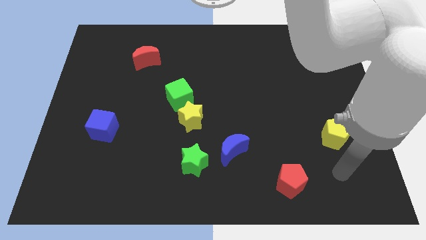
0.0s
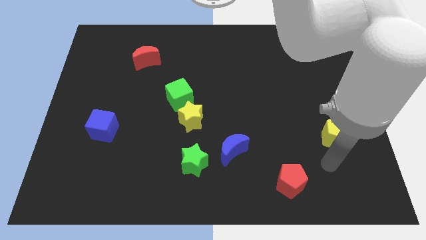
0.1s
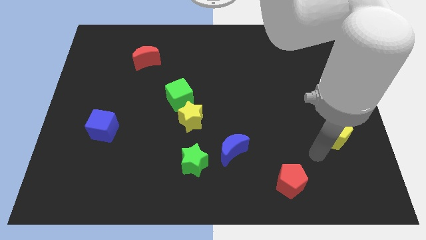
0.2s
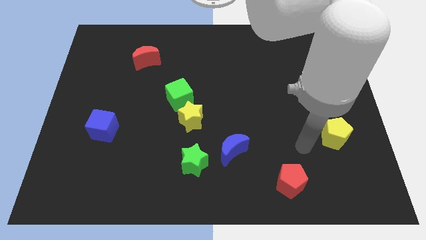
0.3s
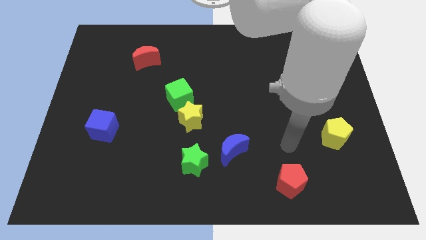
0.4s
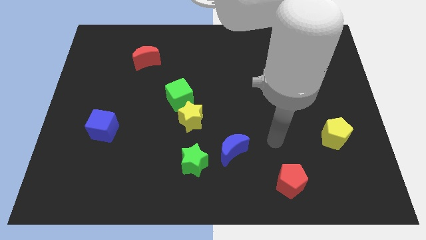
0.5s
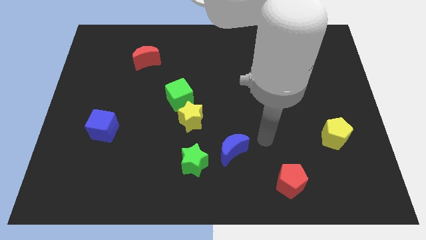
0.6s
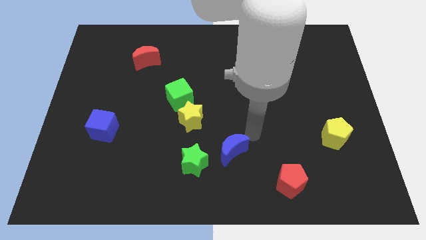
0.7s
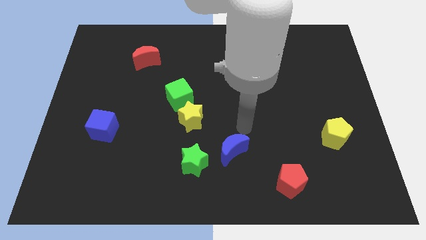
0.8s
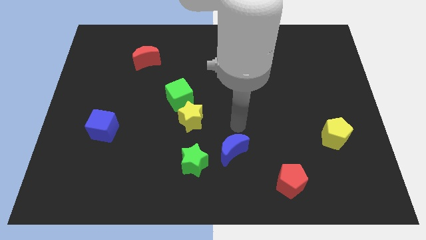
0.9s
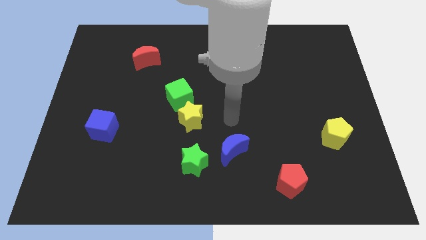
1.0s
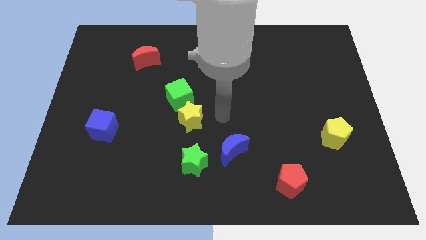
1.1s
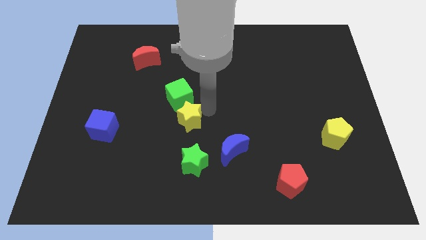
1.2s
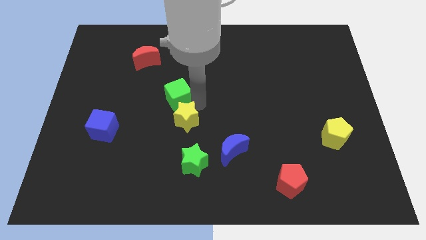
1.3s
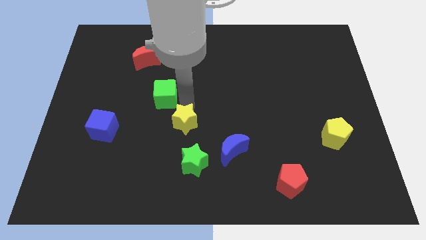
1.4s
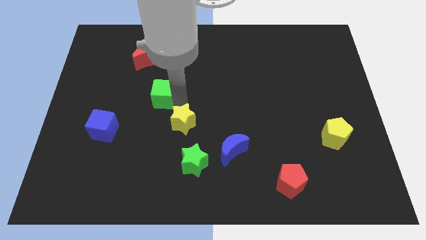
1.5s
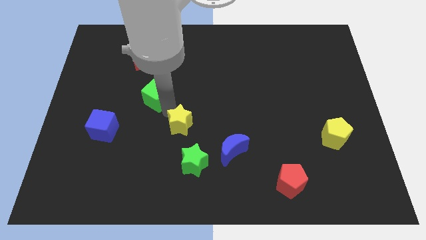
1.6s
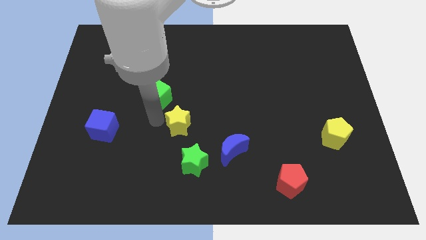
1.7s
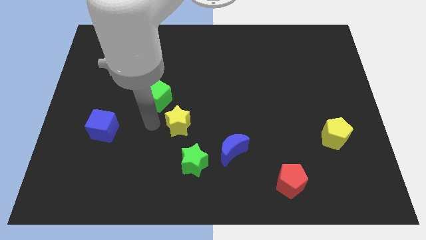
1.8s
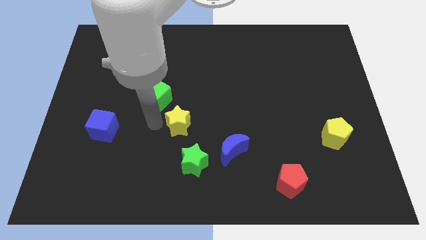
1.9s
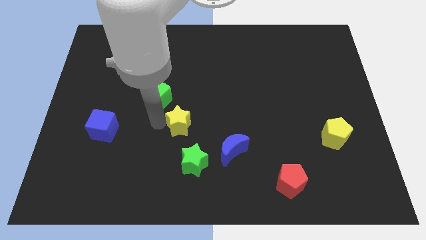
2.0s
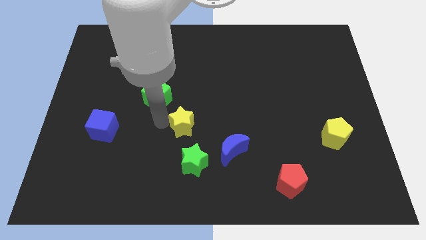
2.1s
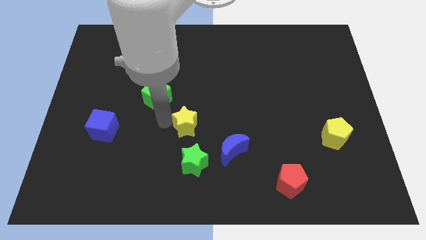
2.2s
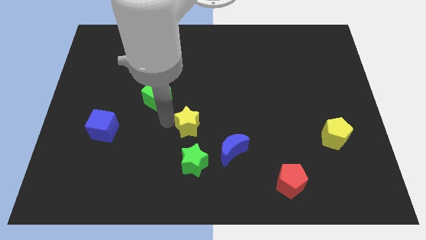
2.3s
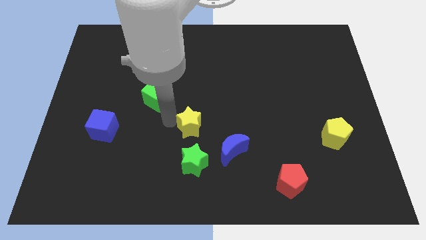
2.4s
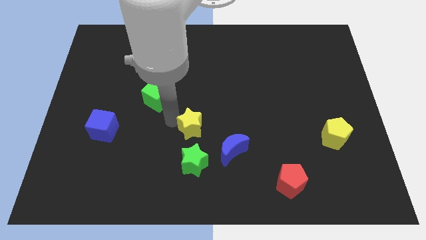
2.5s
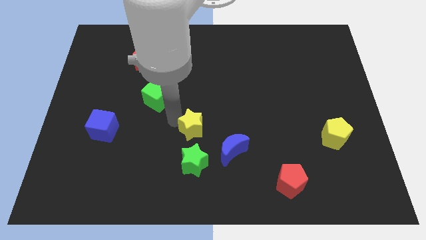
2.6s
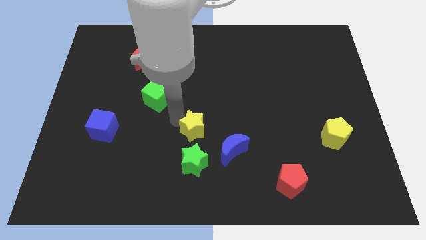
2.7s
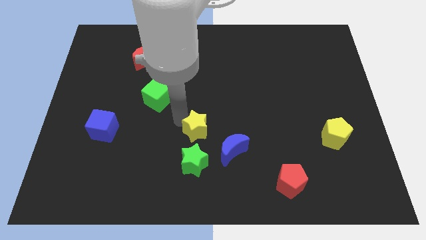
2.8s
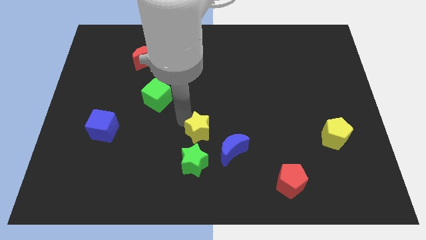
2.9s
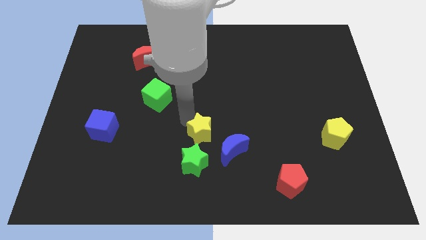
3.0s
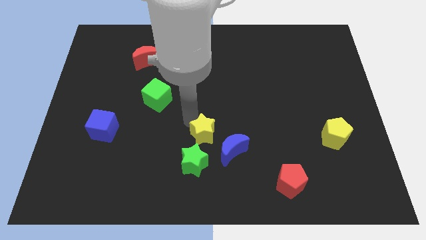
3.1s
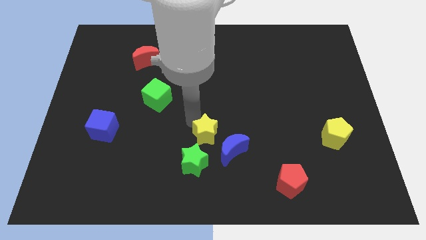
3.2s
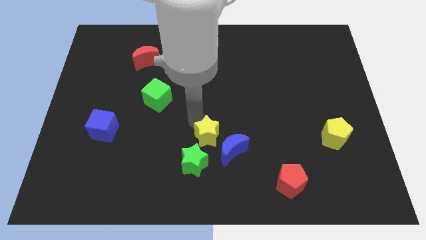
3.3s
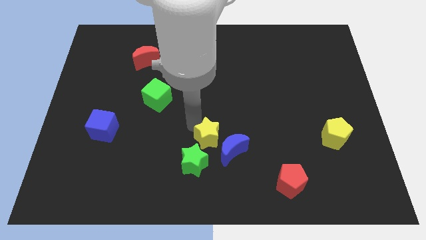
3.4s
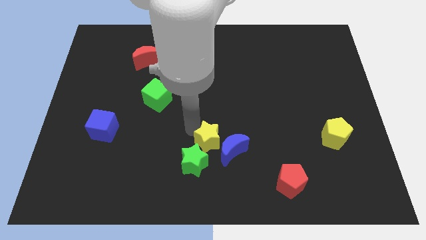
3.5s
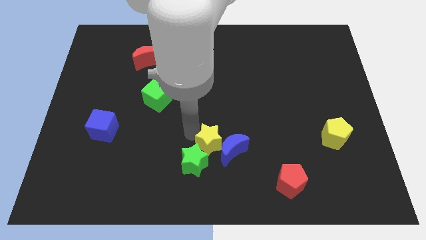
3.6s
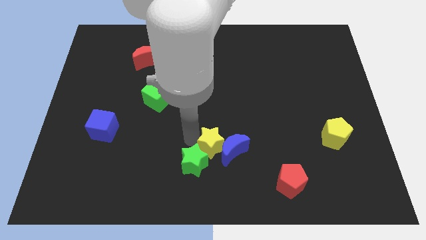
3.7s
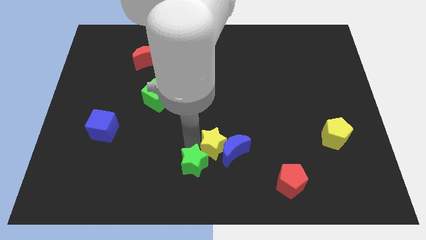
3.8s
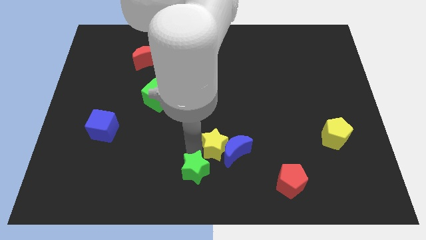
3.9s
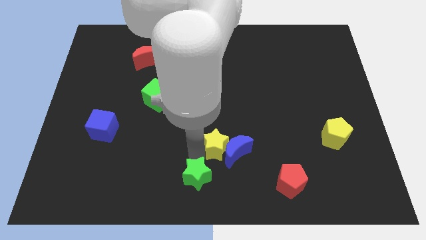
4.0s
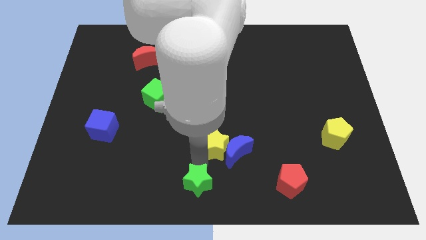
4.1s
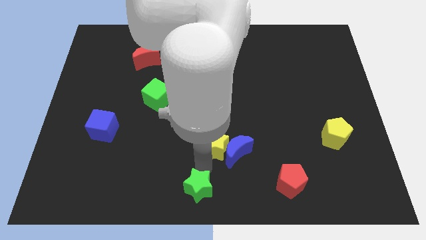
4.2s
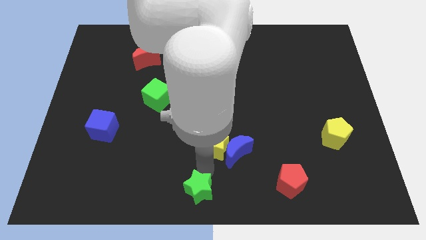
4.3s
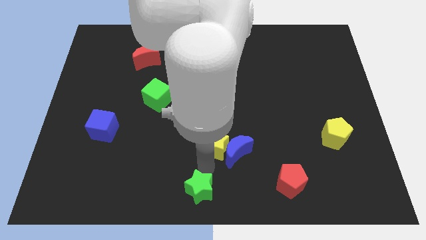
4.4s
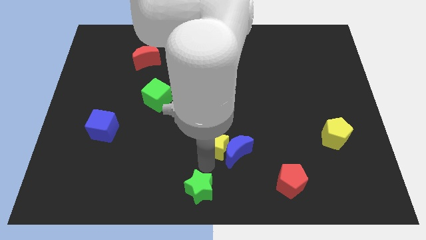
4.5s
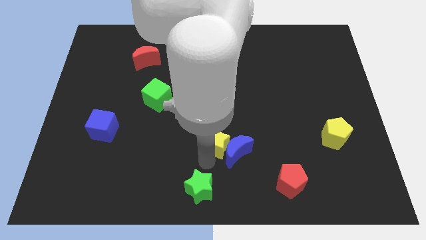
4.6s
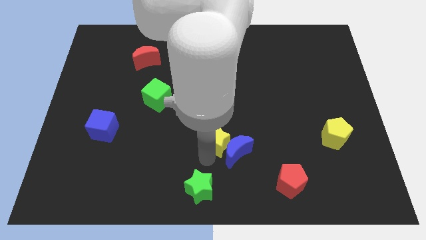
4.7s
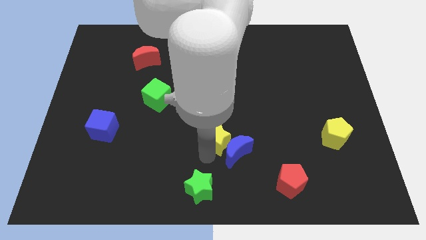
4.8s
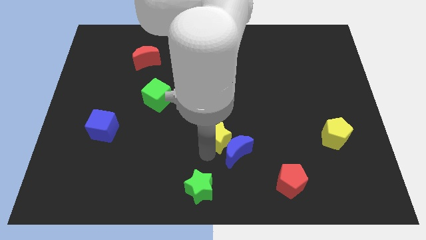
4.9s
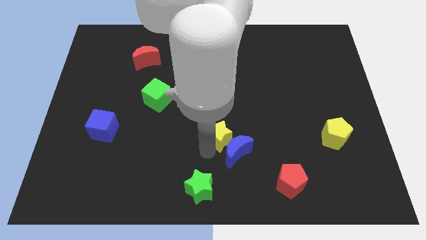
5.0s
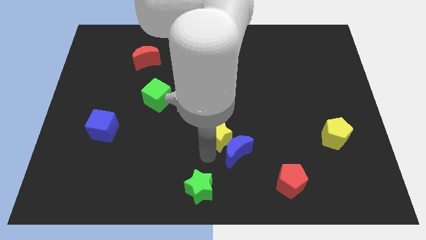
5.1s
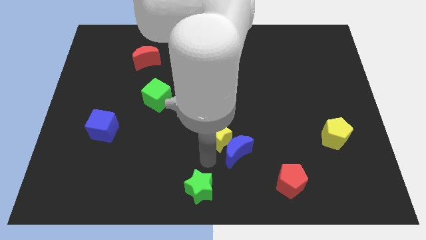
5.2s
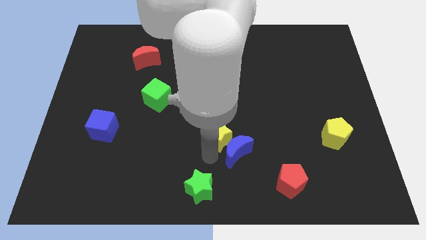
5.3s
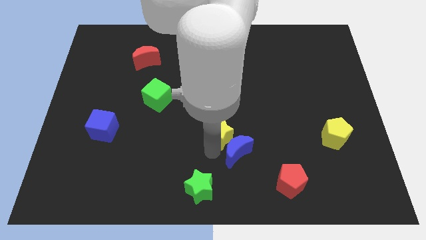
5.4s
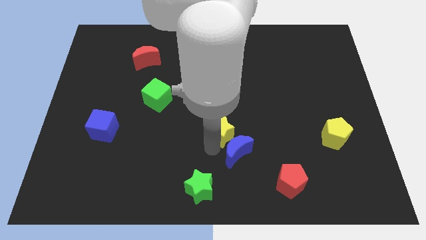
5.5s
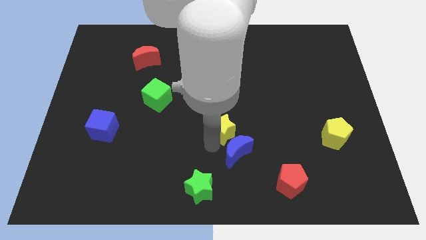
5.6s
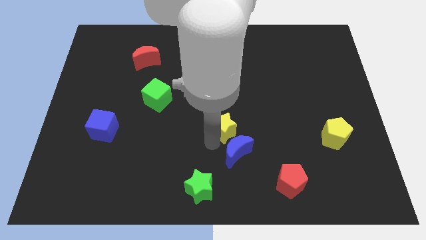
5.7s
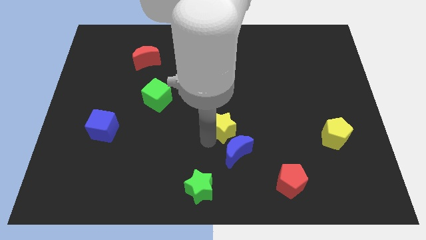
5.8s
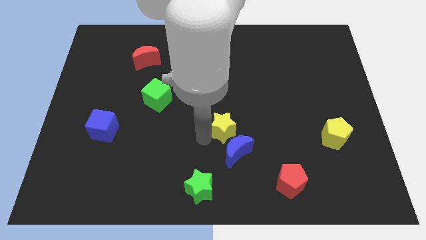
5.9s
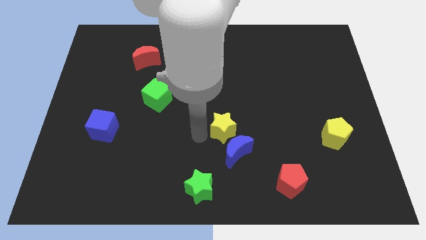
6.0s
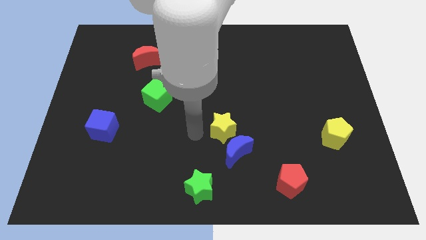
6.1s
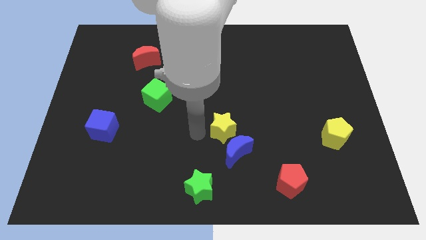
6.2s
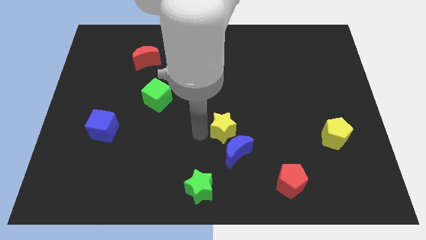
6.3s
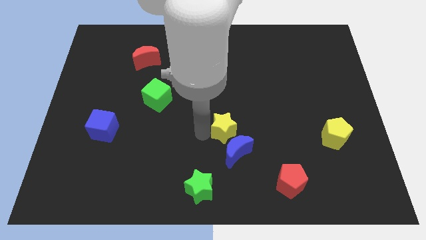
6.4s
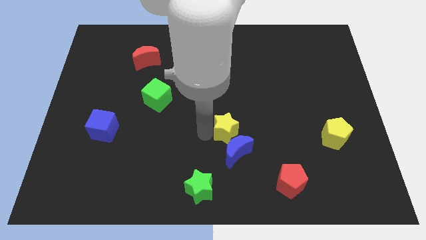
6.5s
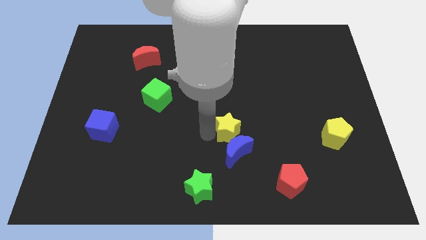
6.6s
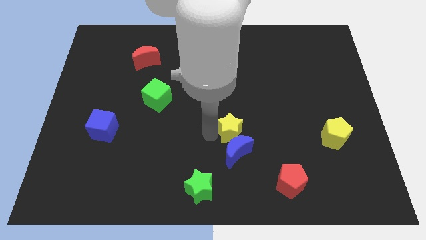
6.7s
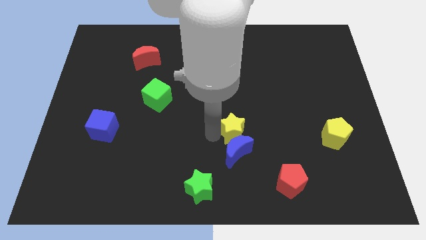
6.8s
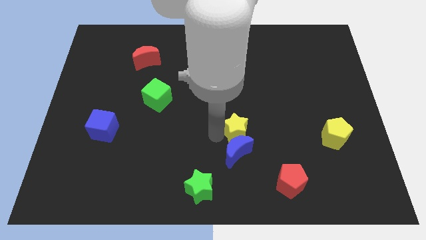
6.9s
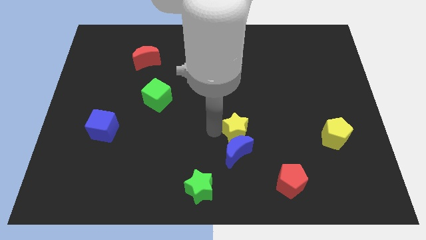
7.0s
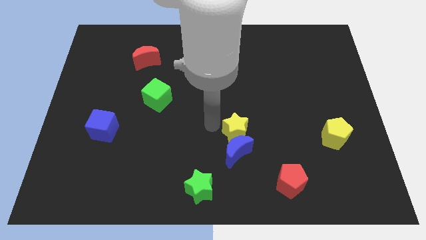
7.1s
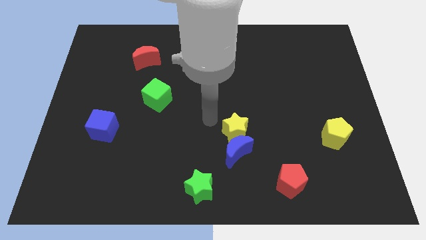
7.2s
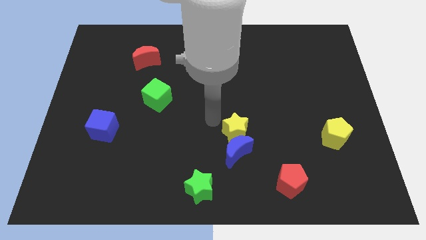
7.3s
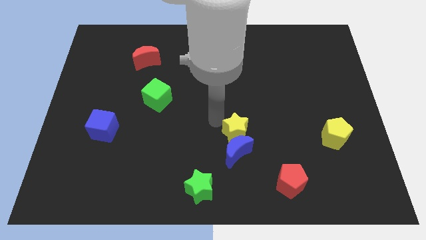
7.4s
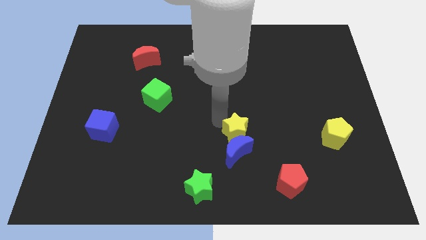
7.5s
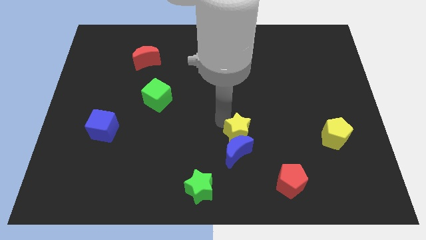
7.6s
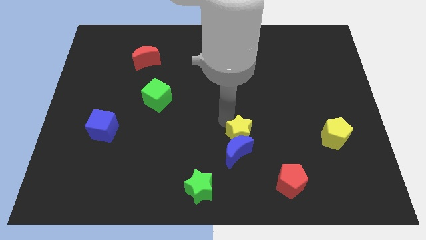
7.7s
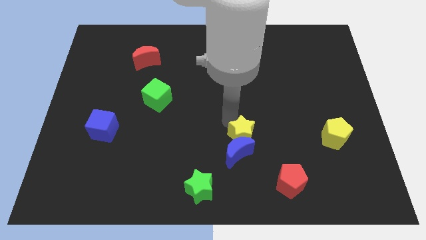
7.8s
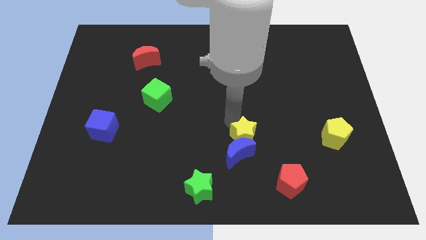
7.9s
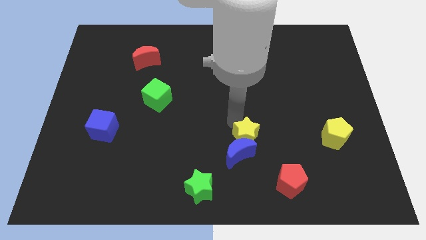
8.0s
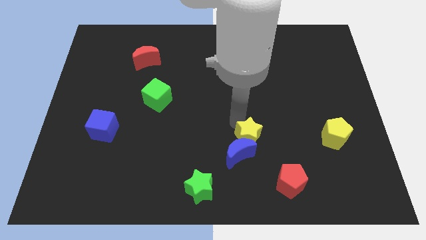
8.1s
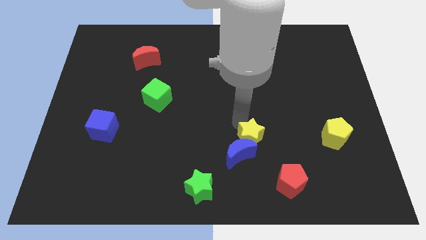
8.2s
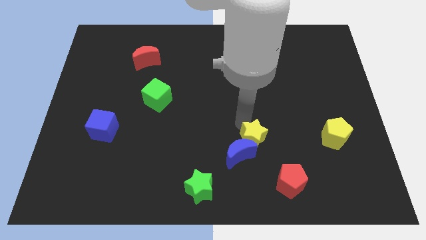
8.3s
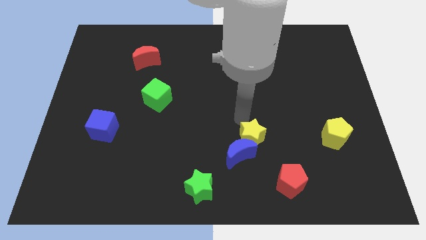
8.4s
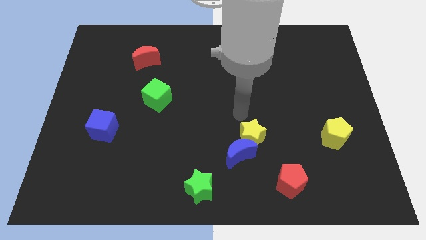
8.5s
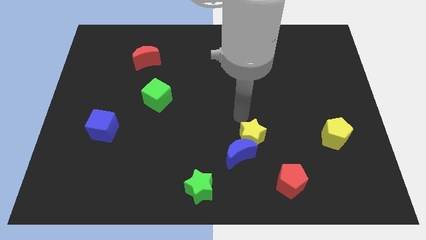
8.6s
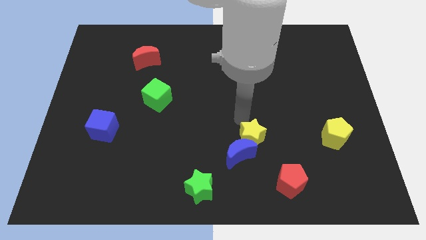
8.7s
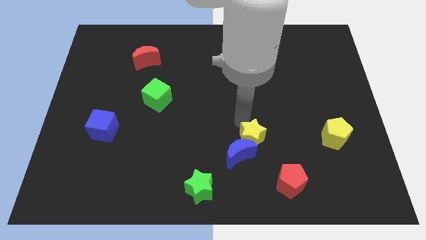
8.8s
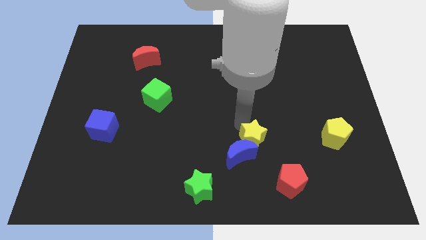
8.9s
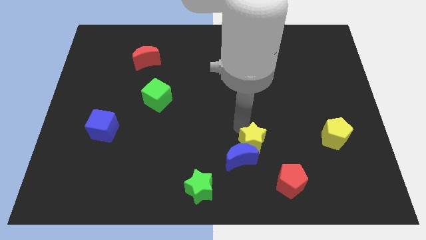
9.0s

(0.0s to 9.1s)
slide the yellow star to the top left of the red pentagon
